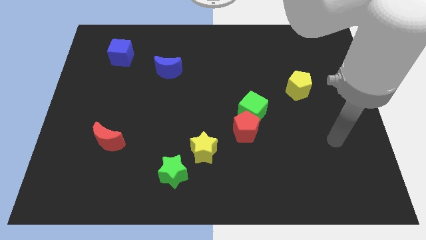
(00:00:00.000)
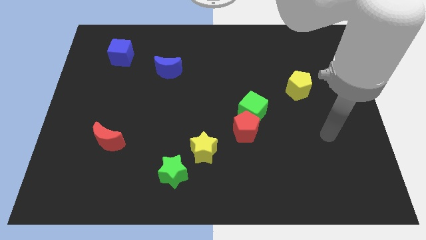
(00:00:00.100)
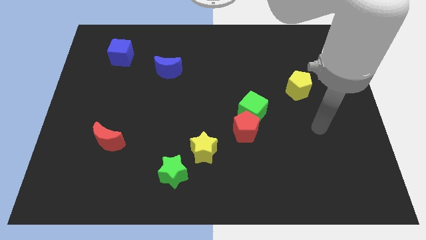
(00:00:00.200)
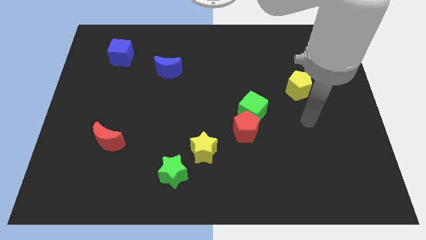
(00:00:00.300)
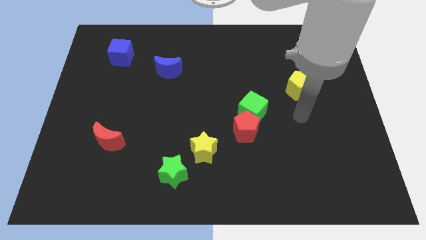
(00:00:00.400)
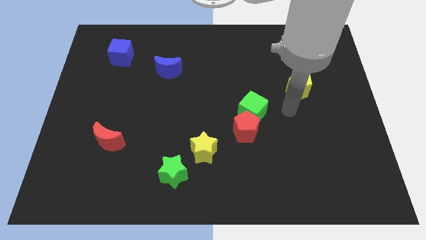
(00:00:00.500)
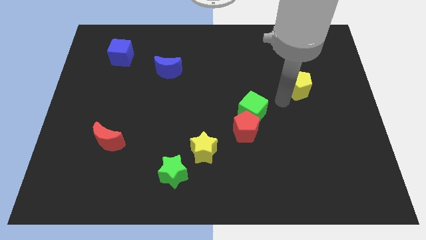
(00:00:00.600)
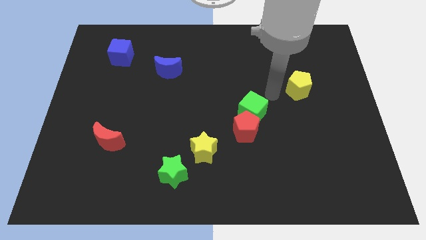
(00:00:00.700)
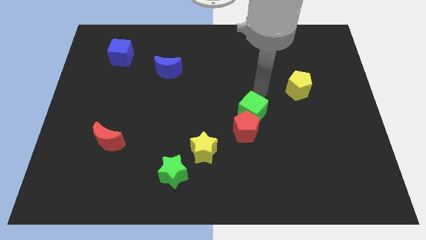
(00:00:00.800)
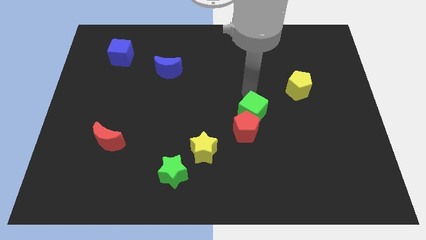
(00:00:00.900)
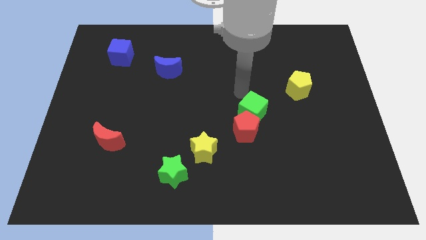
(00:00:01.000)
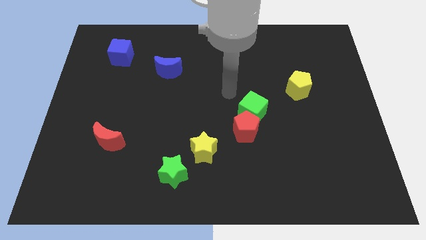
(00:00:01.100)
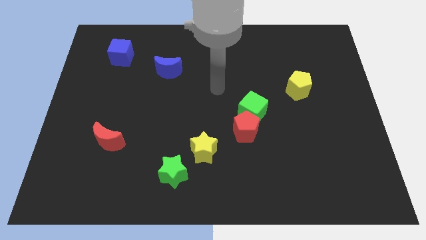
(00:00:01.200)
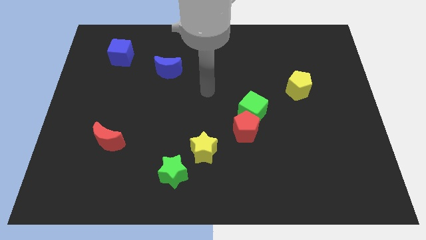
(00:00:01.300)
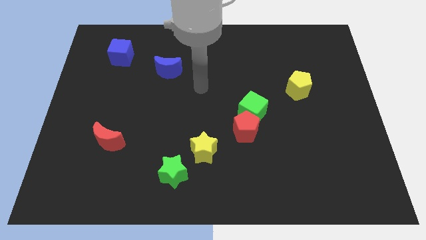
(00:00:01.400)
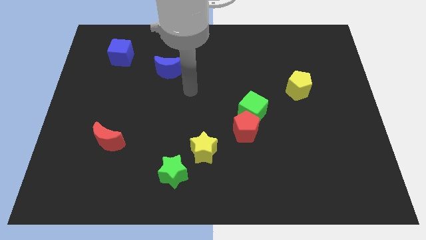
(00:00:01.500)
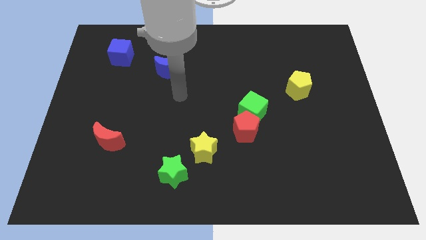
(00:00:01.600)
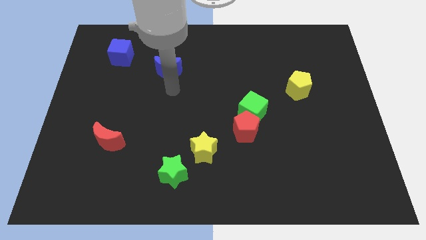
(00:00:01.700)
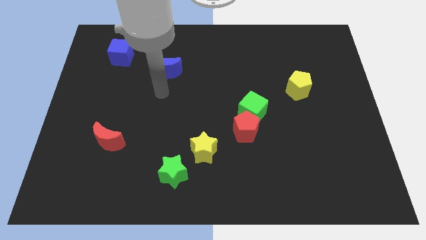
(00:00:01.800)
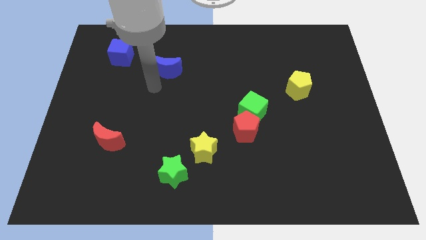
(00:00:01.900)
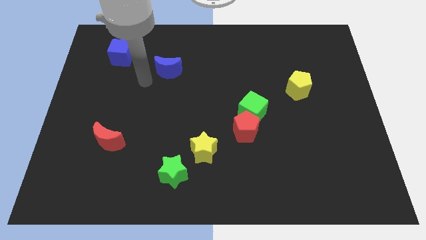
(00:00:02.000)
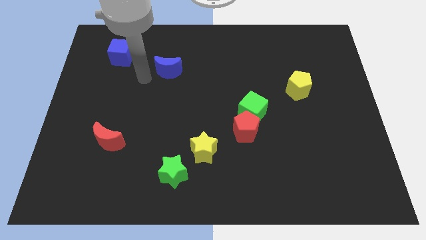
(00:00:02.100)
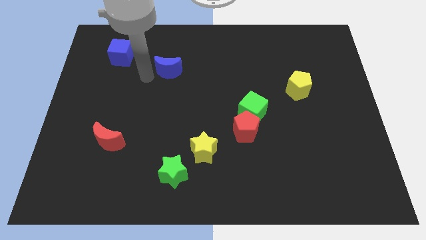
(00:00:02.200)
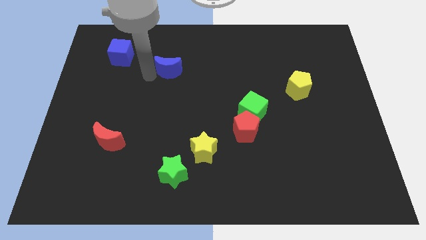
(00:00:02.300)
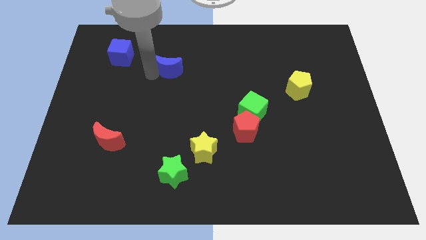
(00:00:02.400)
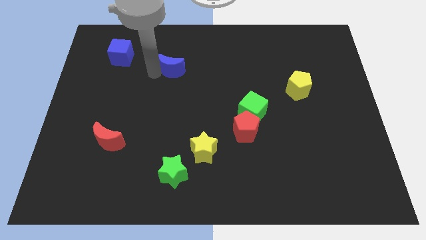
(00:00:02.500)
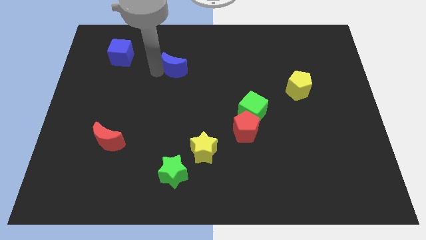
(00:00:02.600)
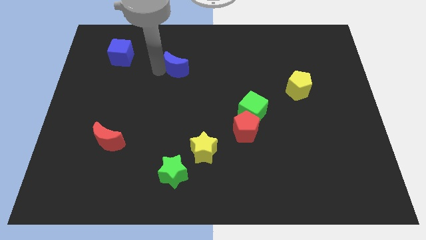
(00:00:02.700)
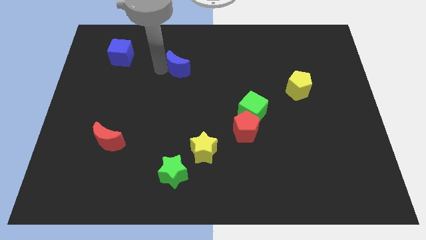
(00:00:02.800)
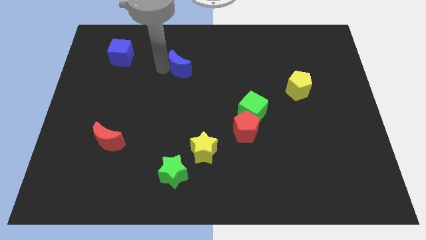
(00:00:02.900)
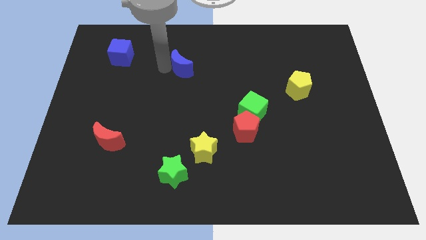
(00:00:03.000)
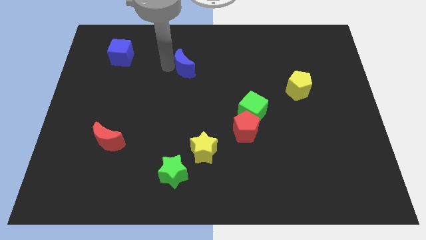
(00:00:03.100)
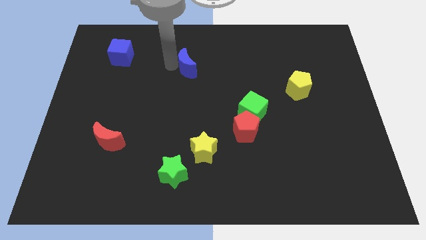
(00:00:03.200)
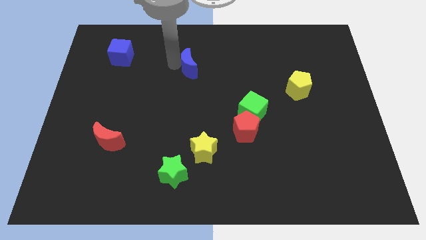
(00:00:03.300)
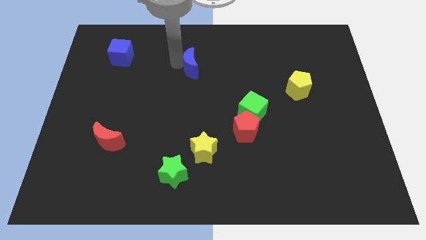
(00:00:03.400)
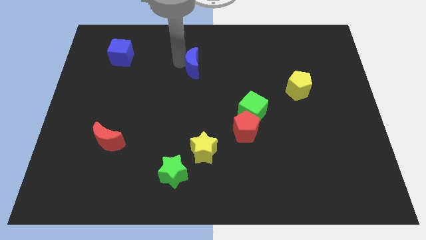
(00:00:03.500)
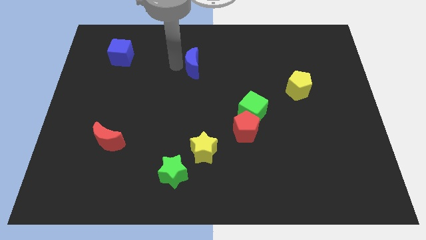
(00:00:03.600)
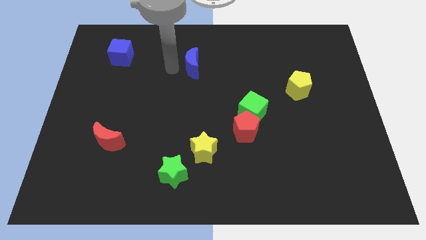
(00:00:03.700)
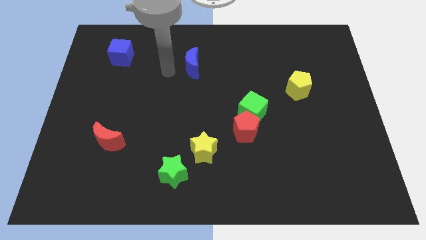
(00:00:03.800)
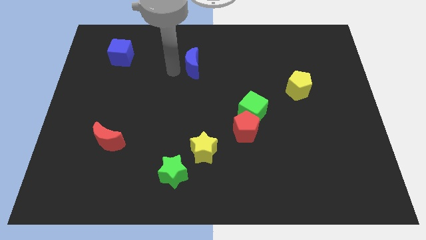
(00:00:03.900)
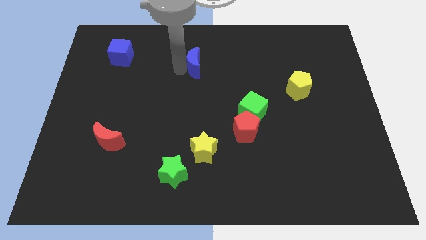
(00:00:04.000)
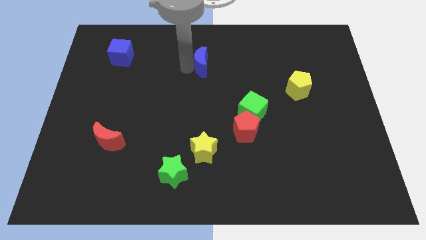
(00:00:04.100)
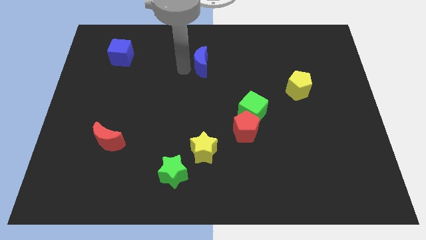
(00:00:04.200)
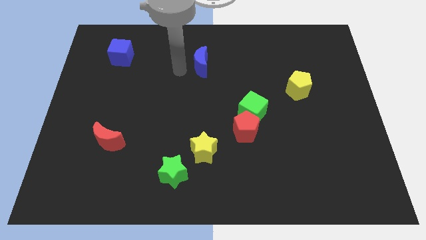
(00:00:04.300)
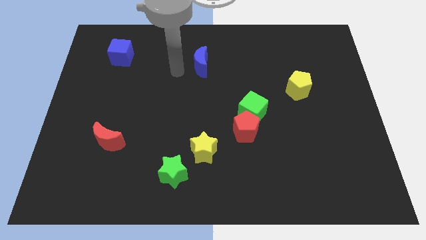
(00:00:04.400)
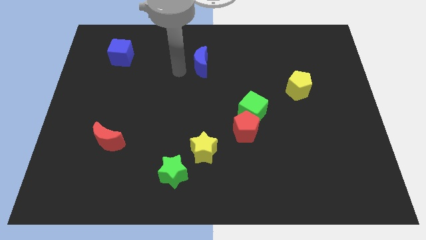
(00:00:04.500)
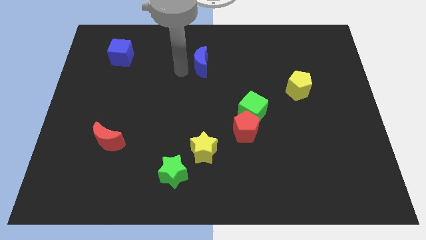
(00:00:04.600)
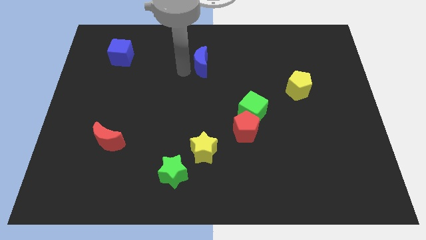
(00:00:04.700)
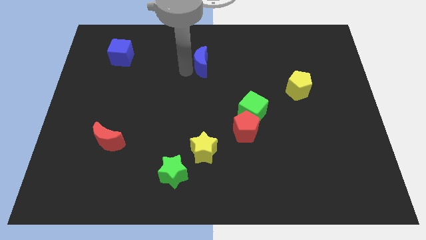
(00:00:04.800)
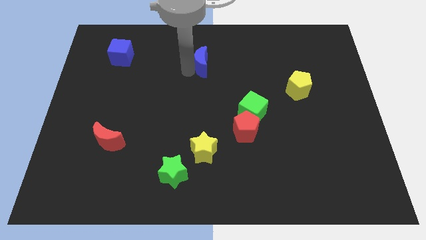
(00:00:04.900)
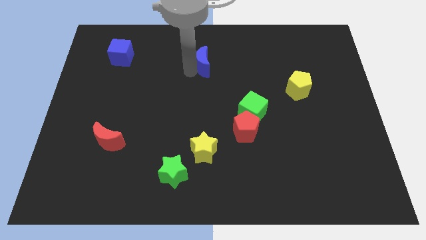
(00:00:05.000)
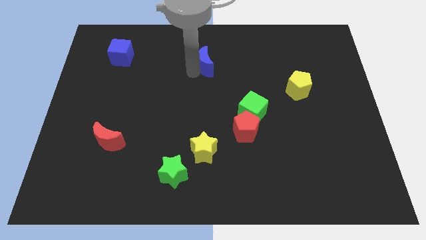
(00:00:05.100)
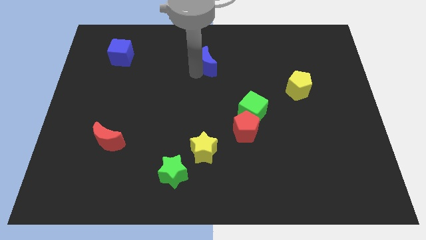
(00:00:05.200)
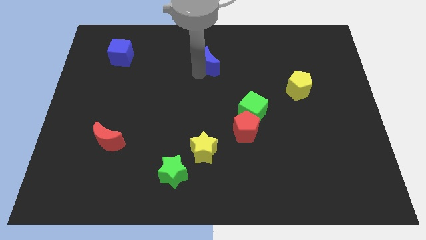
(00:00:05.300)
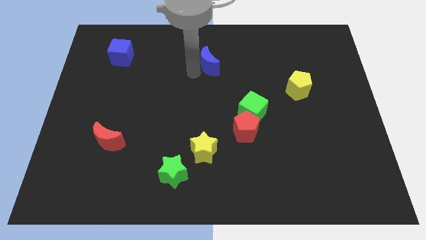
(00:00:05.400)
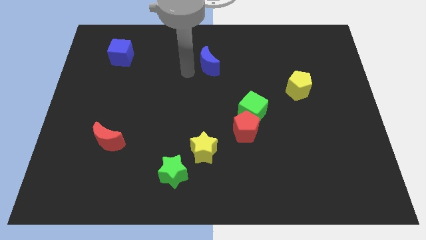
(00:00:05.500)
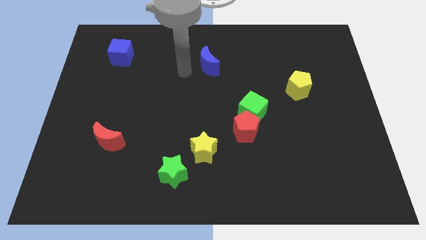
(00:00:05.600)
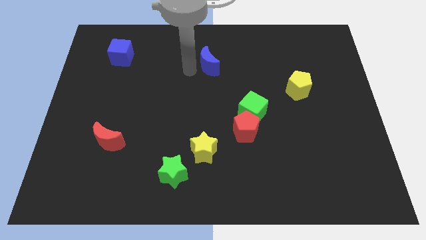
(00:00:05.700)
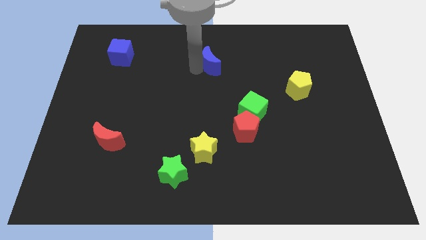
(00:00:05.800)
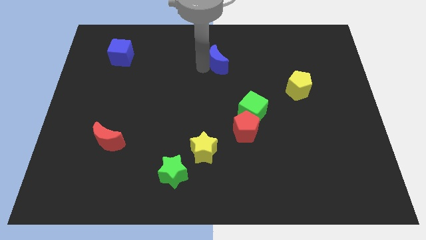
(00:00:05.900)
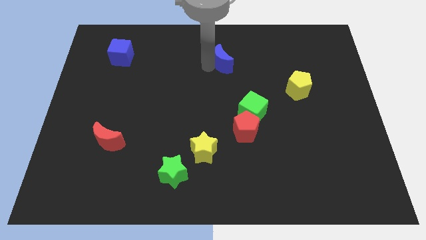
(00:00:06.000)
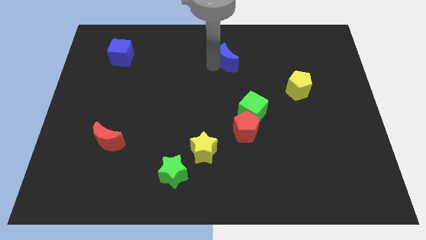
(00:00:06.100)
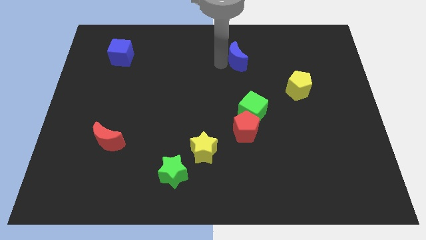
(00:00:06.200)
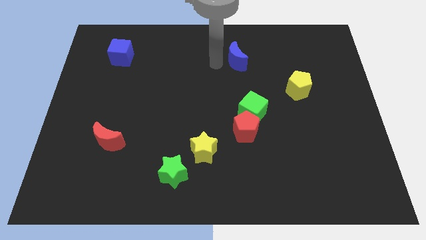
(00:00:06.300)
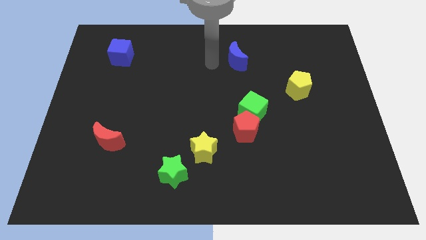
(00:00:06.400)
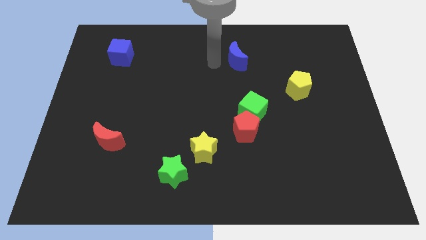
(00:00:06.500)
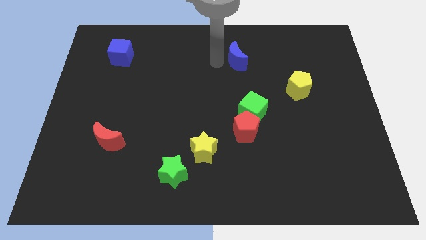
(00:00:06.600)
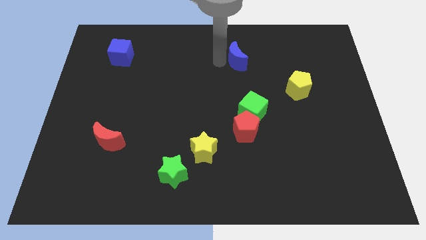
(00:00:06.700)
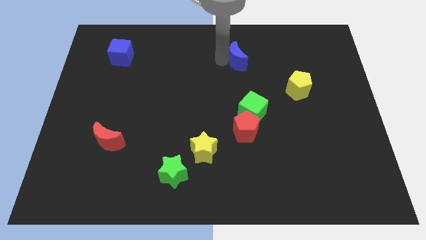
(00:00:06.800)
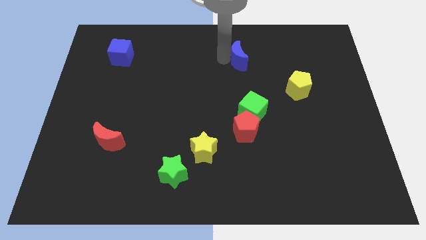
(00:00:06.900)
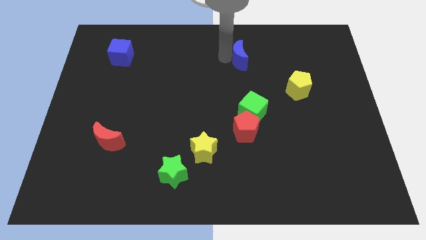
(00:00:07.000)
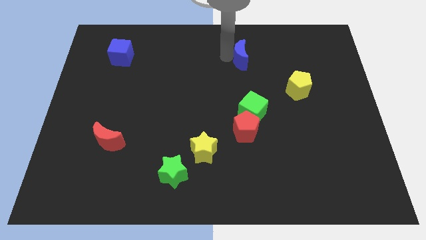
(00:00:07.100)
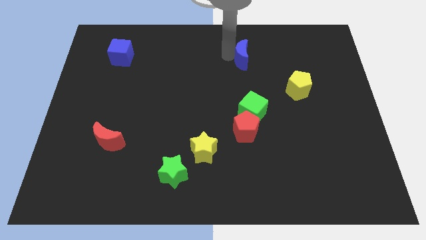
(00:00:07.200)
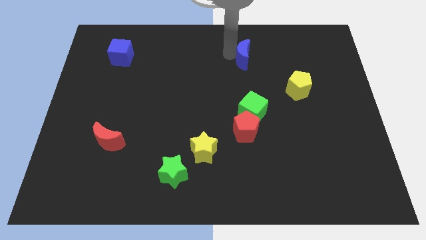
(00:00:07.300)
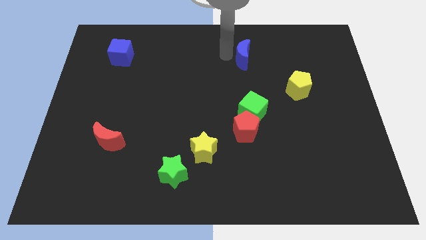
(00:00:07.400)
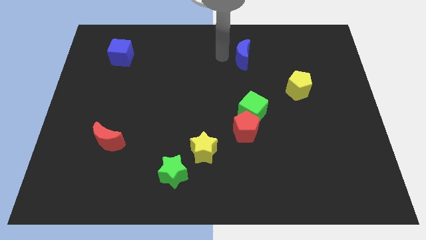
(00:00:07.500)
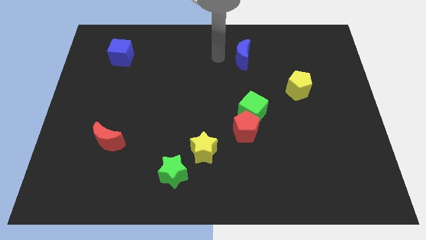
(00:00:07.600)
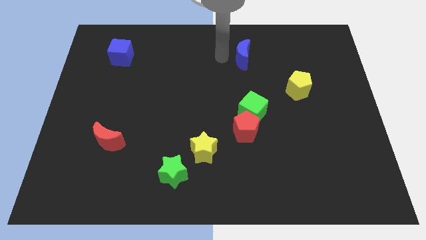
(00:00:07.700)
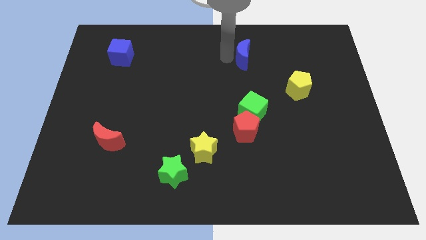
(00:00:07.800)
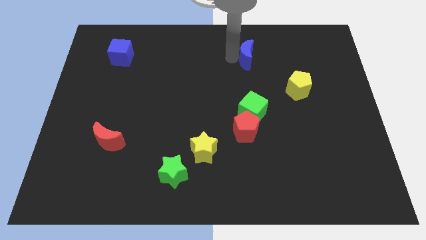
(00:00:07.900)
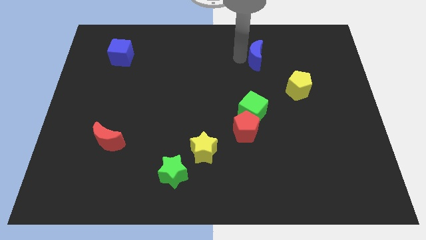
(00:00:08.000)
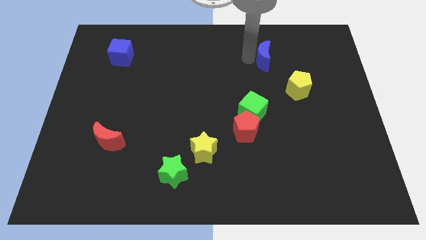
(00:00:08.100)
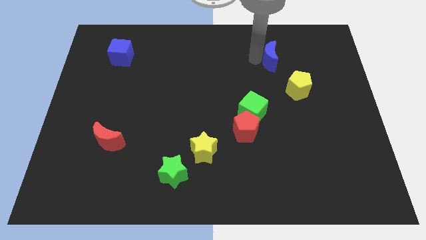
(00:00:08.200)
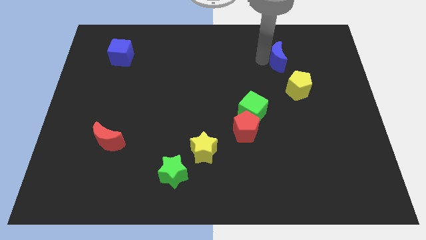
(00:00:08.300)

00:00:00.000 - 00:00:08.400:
move the blue moon to the top side of the yellow pentagon
